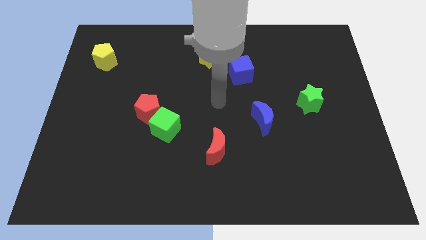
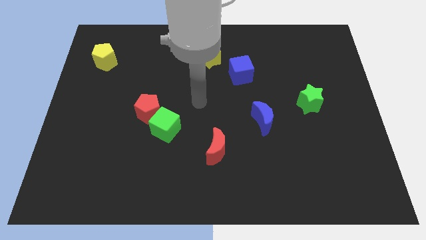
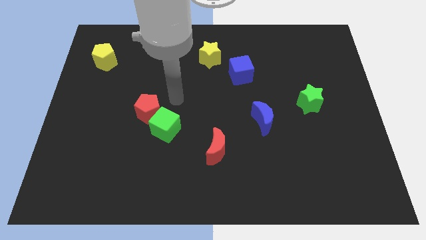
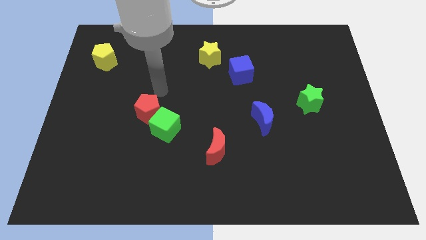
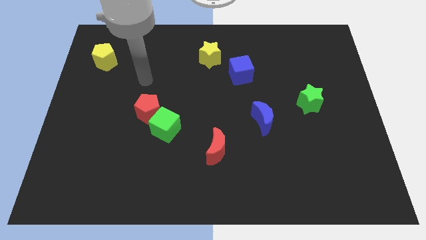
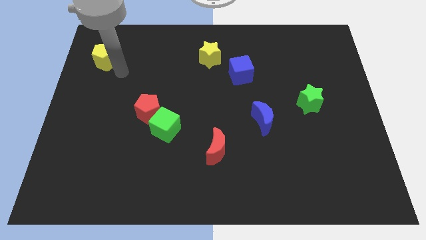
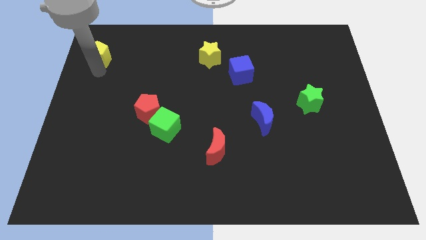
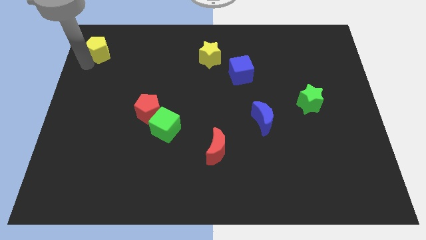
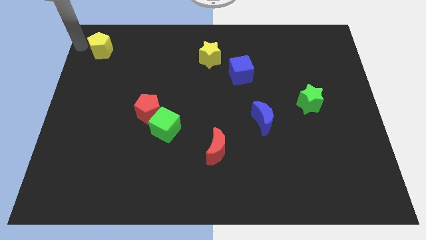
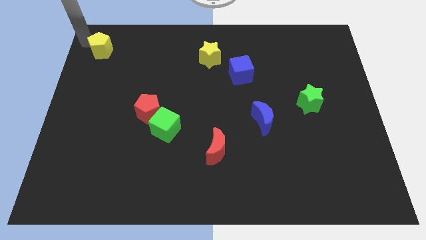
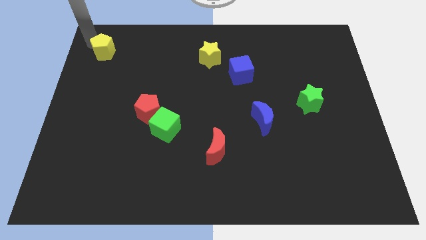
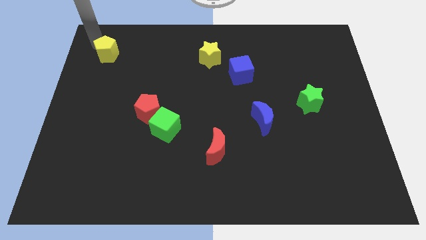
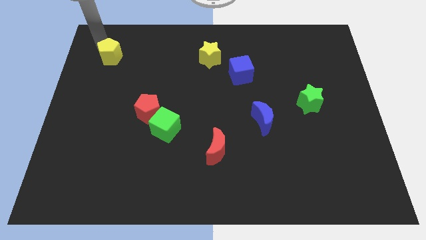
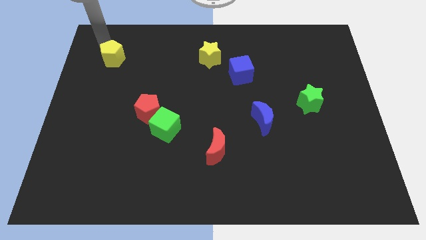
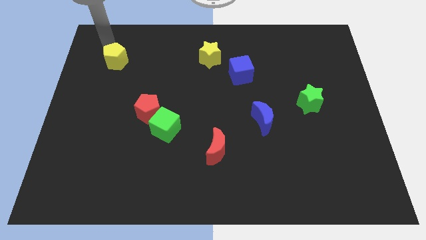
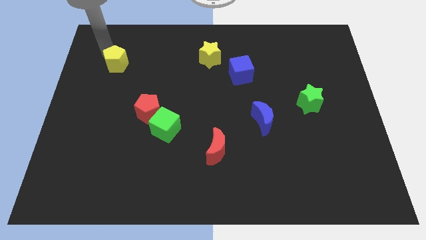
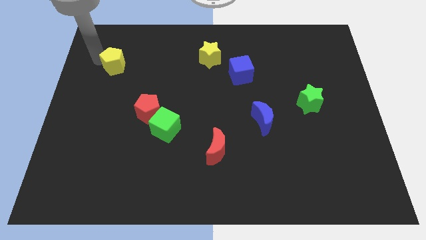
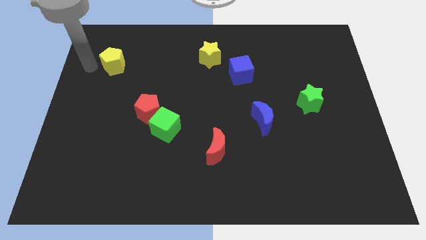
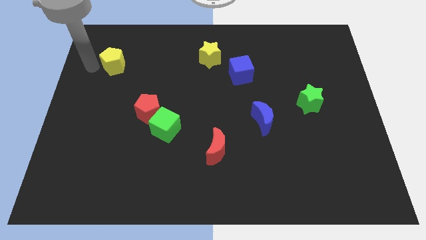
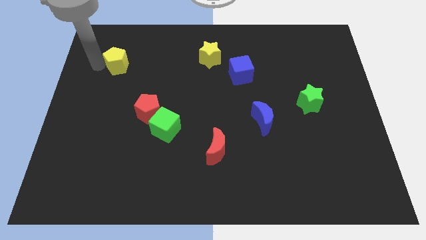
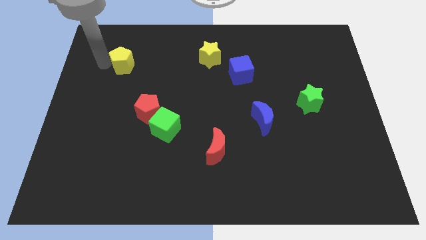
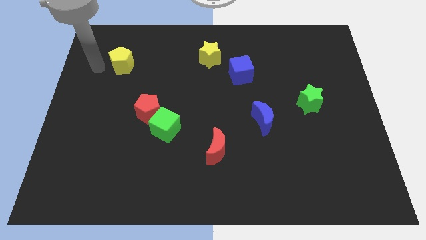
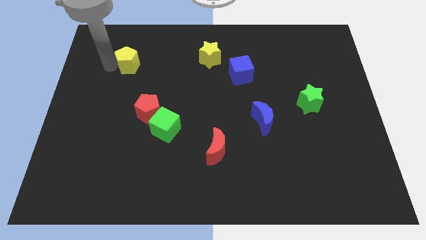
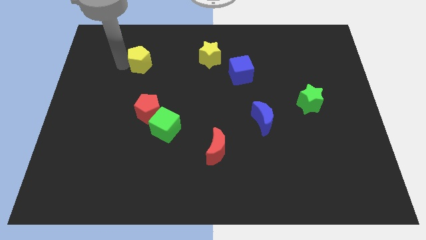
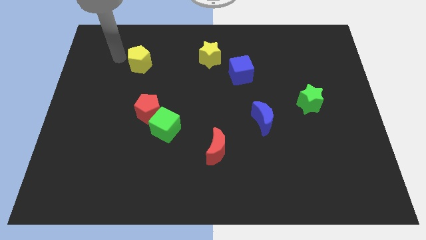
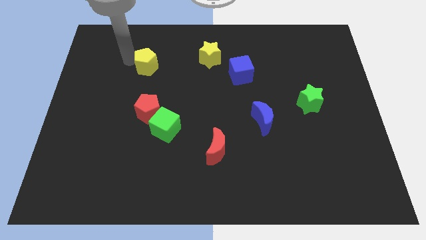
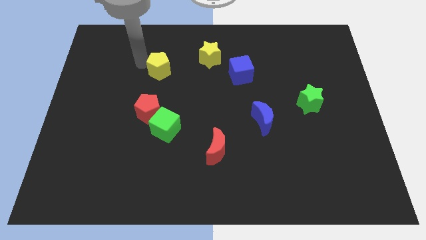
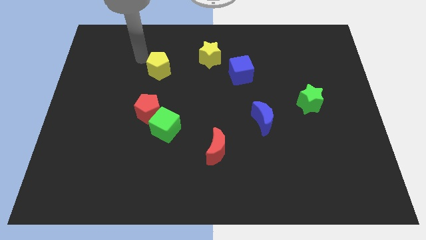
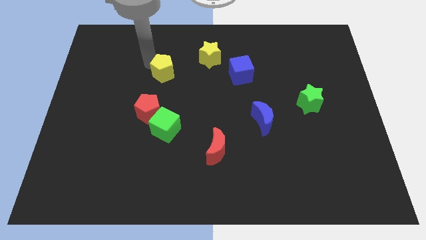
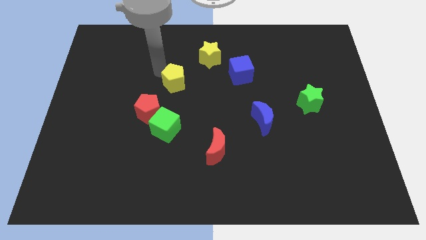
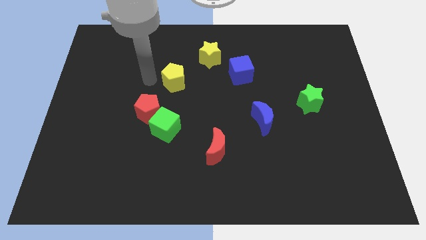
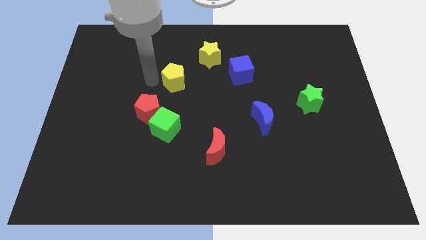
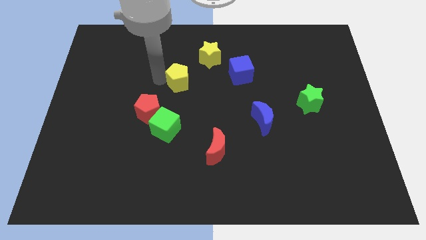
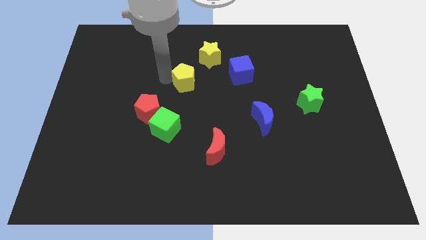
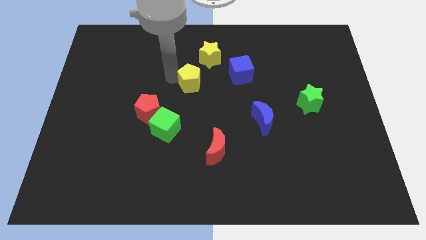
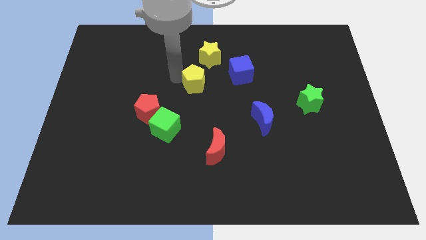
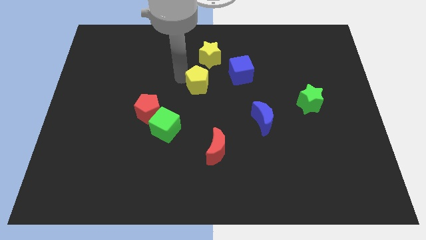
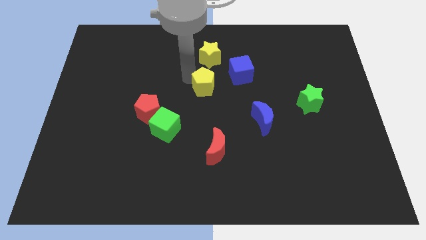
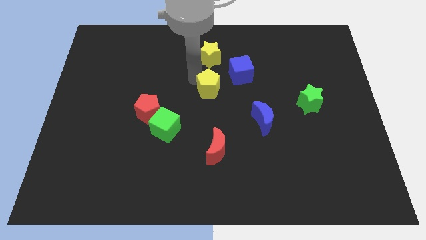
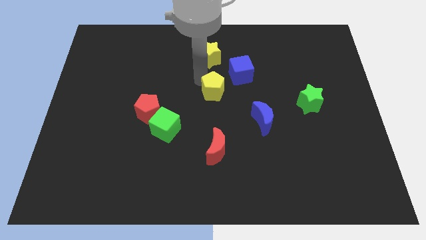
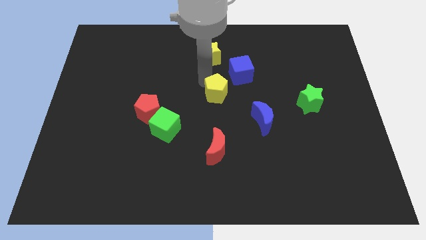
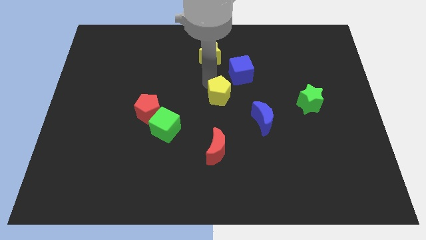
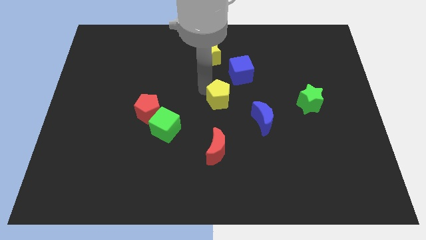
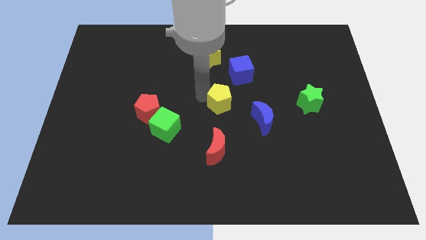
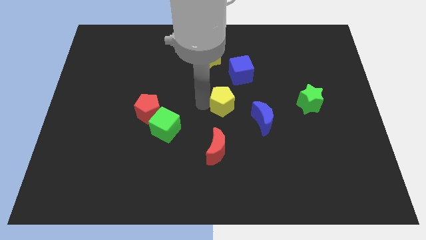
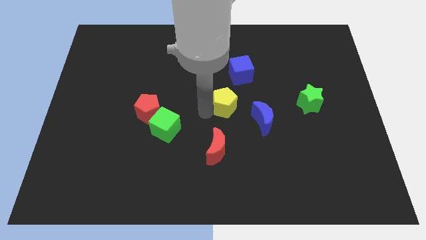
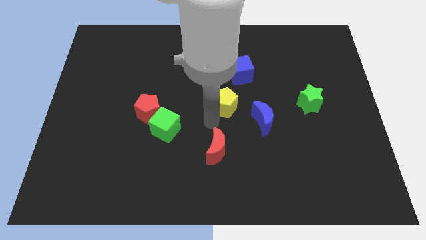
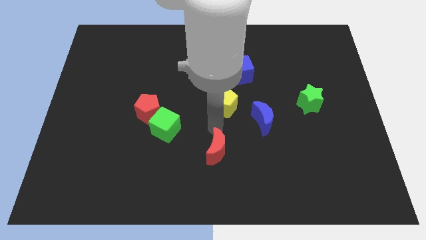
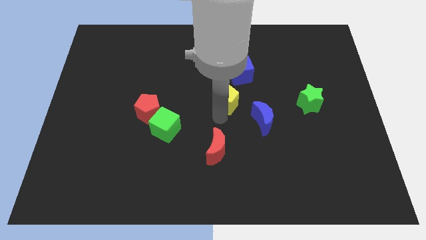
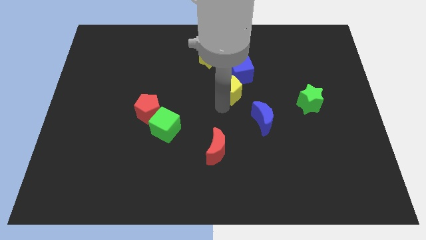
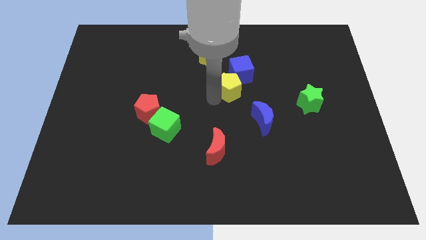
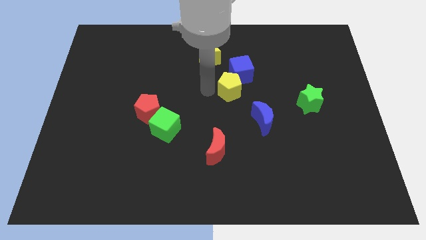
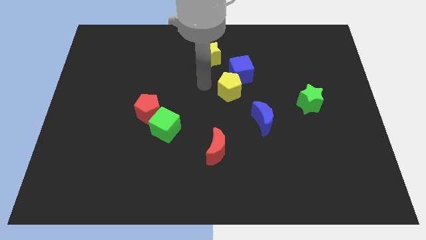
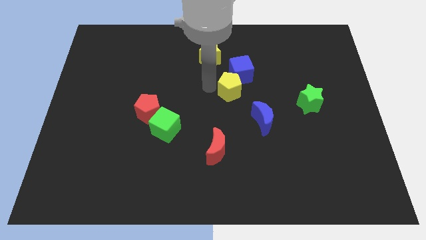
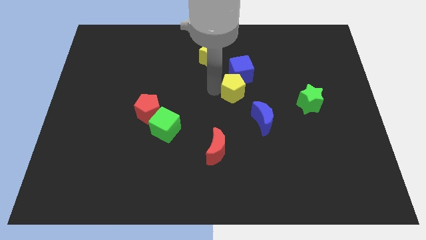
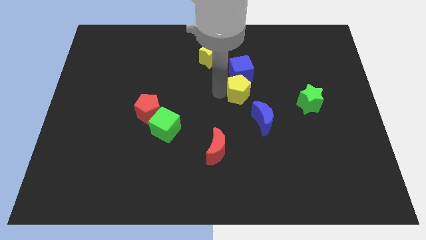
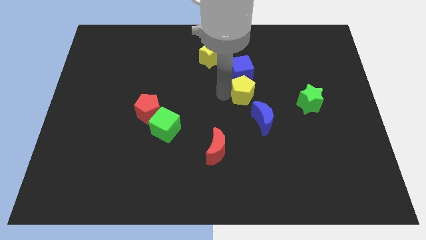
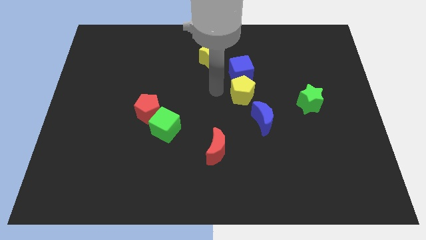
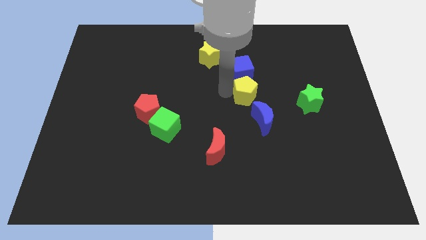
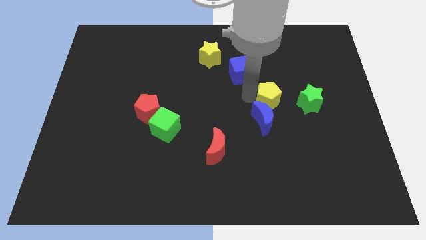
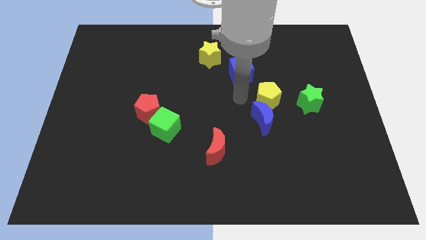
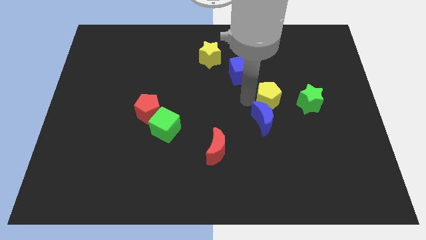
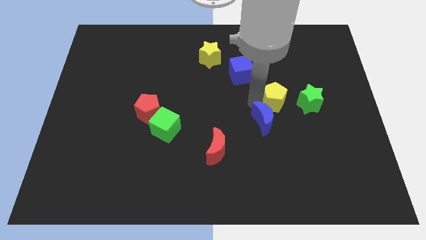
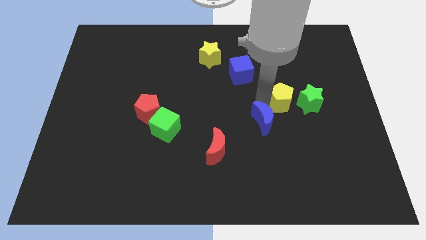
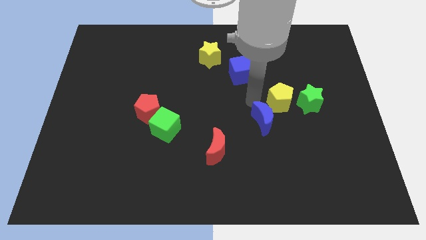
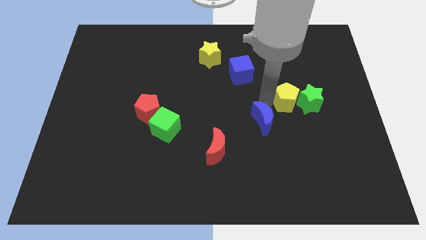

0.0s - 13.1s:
slide the yellow pentagon next to the green star

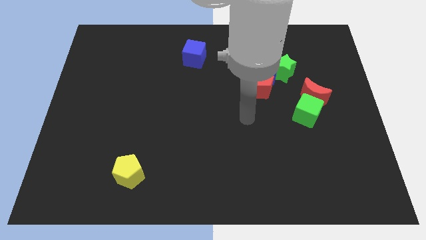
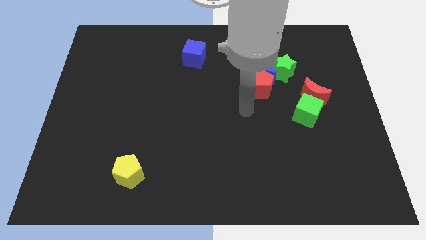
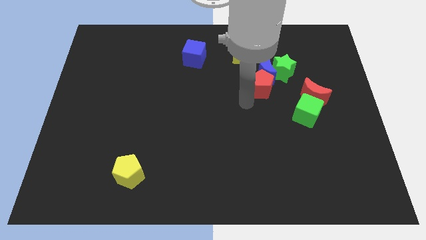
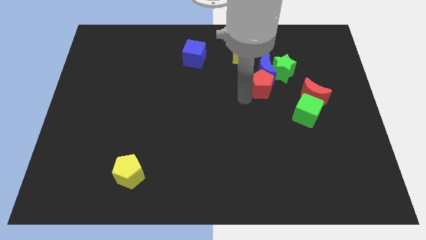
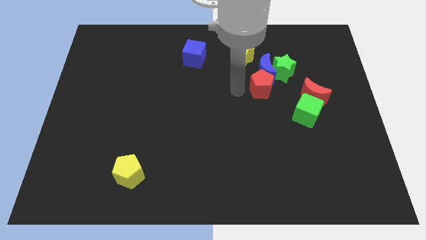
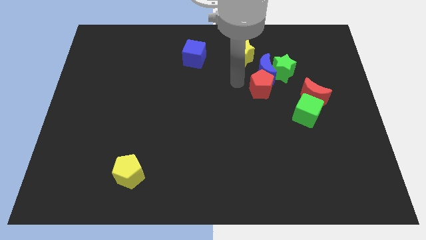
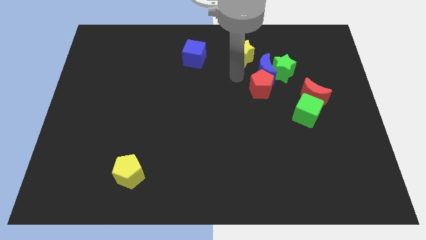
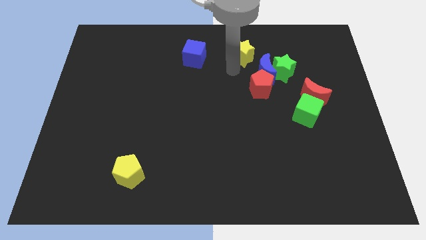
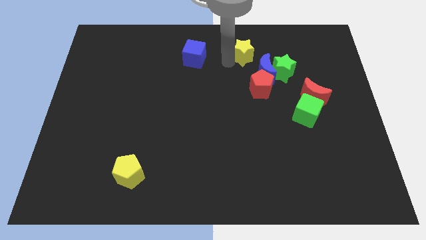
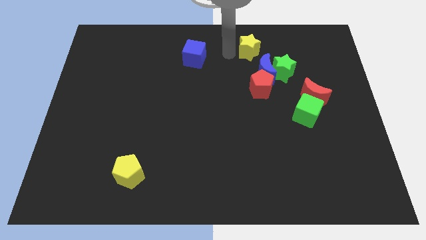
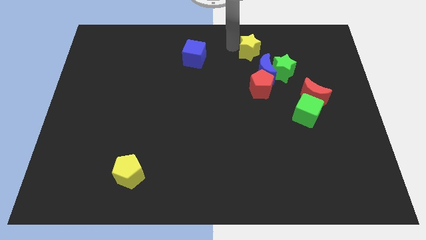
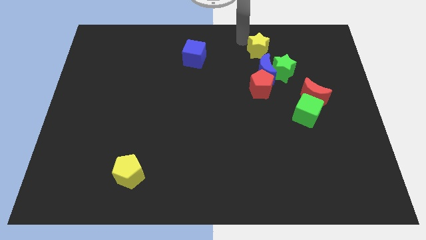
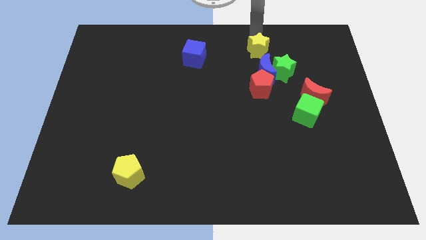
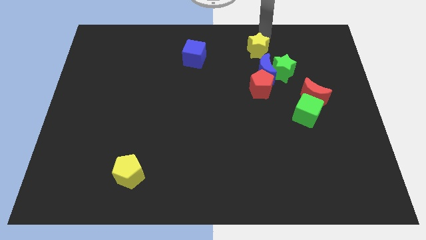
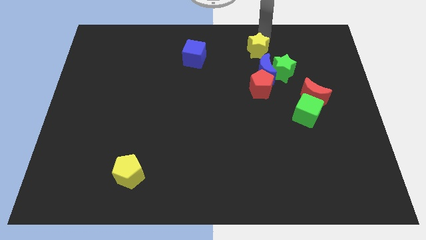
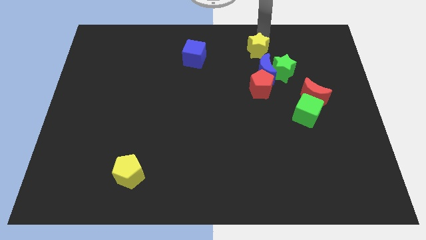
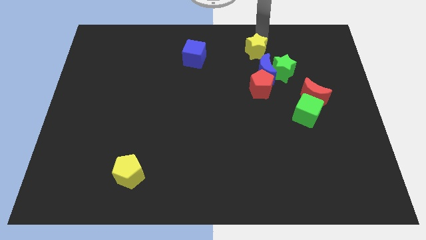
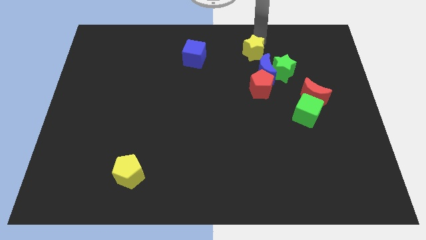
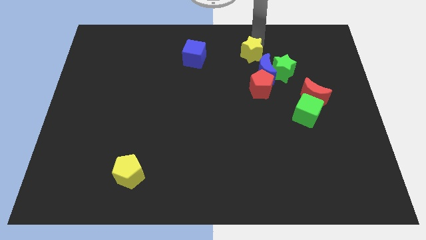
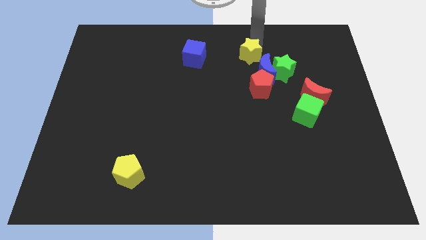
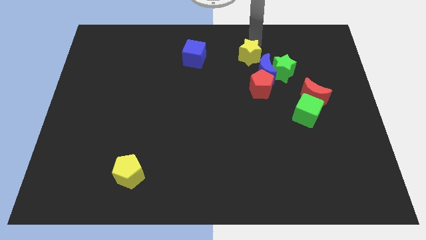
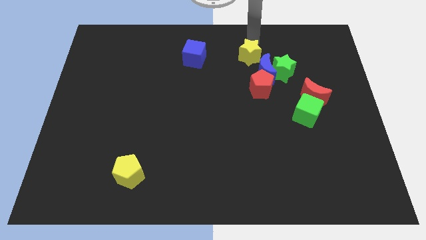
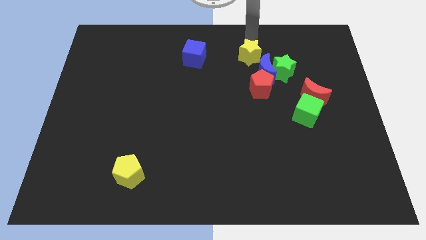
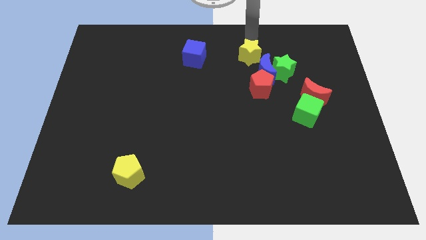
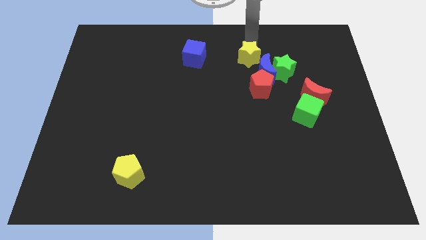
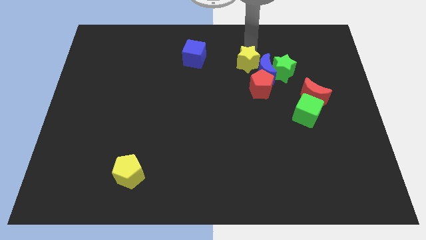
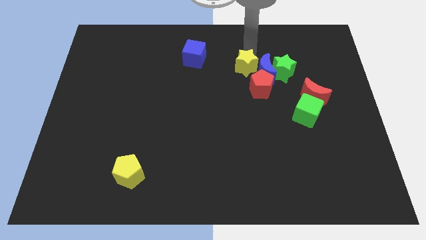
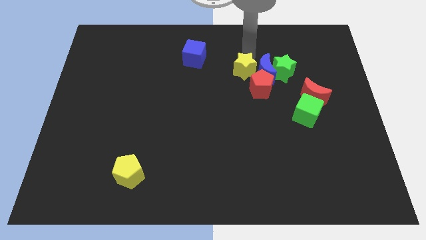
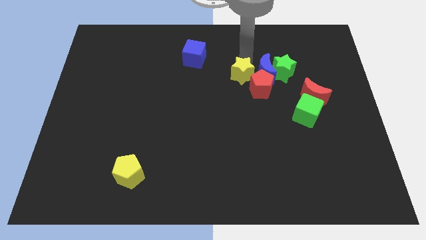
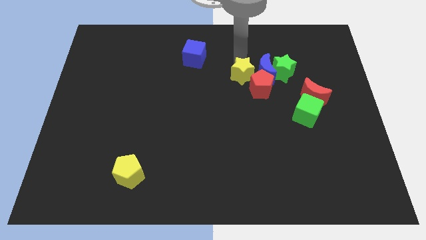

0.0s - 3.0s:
move the yellow star towards the red pentagon
